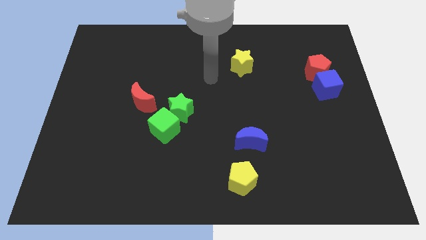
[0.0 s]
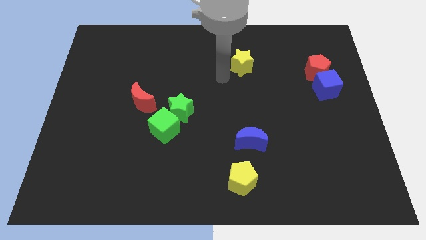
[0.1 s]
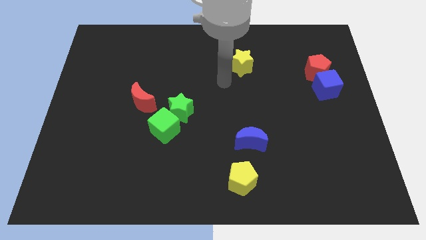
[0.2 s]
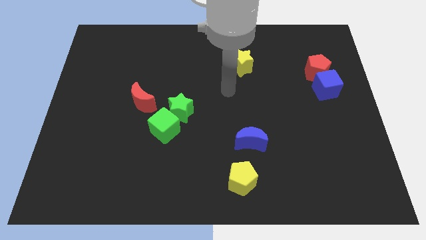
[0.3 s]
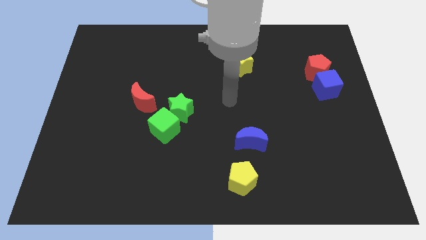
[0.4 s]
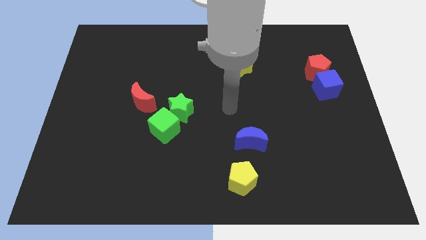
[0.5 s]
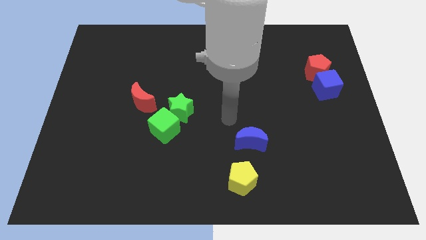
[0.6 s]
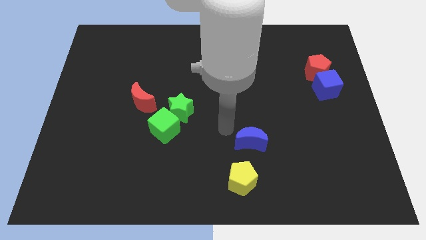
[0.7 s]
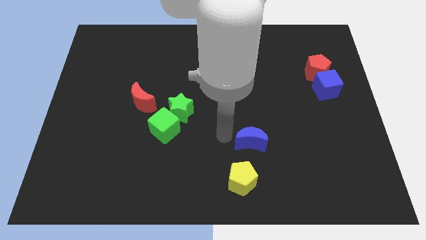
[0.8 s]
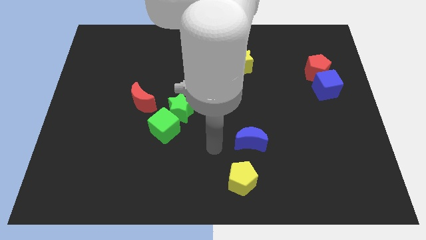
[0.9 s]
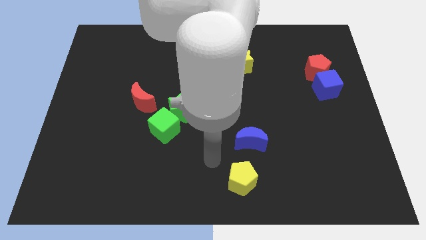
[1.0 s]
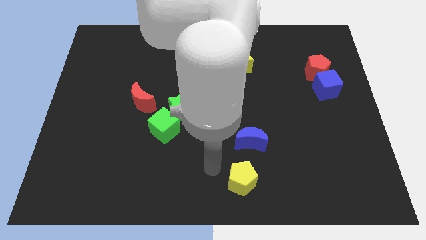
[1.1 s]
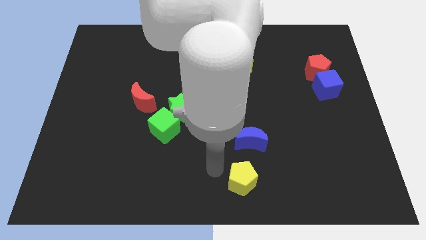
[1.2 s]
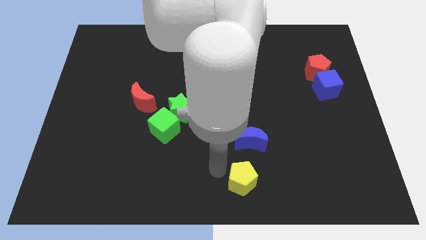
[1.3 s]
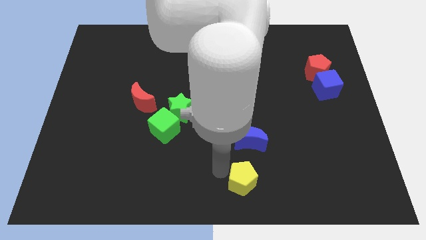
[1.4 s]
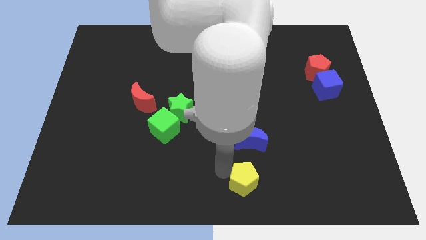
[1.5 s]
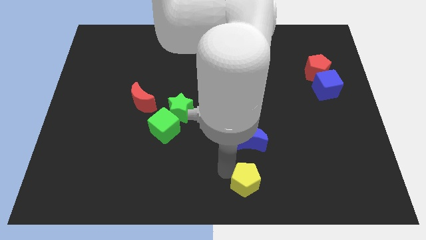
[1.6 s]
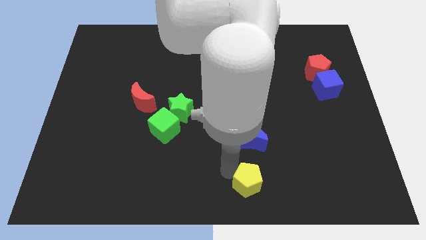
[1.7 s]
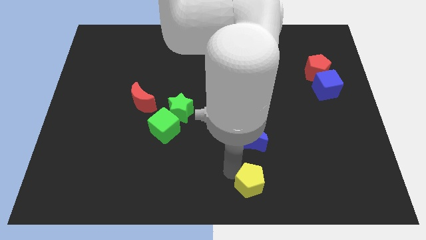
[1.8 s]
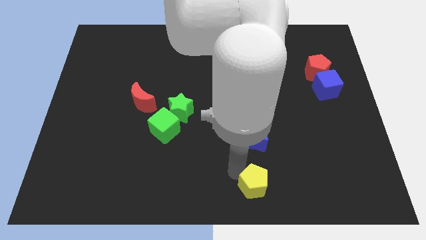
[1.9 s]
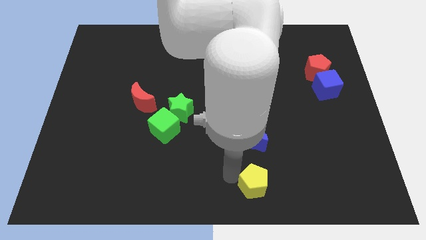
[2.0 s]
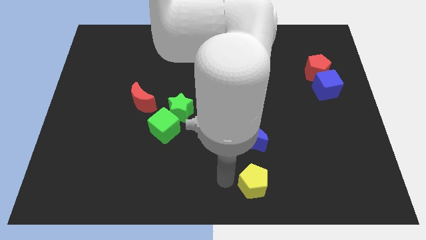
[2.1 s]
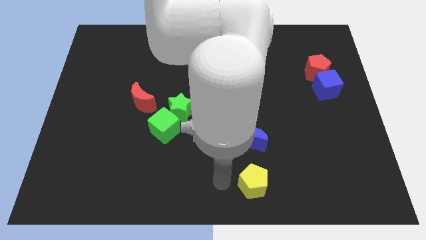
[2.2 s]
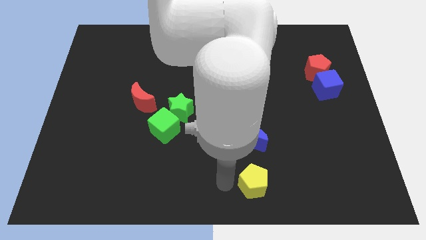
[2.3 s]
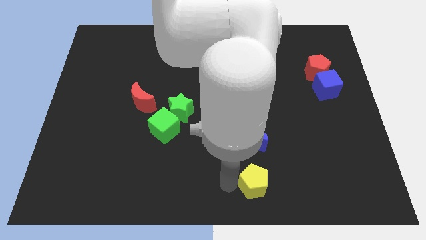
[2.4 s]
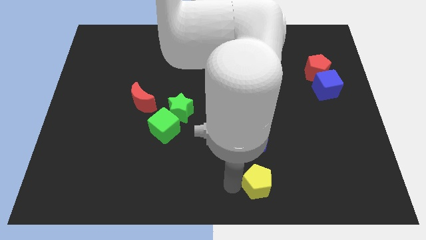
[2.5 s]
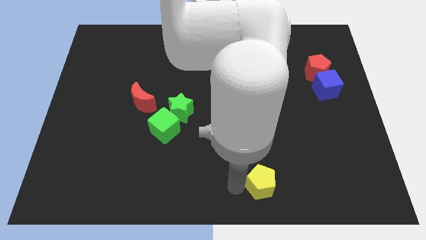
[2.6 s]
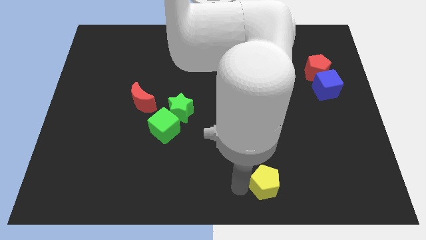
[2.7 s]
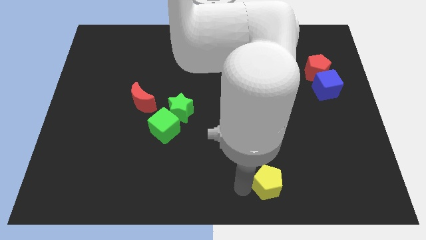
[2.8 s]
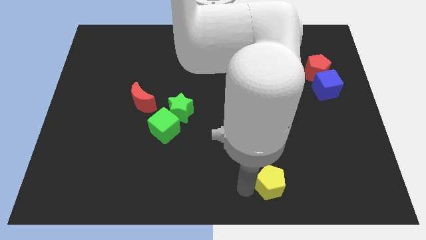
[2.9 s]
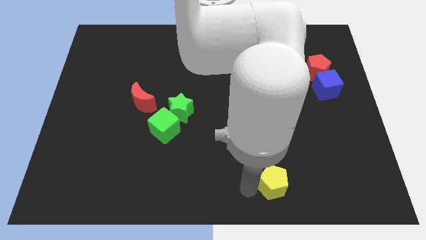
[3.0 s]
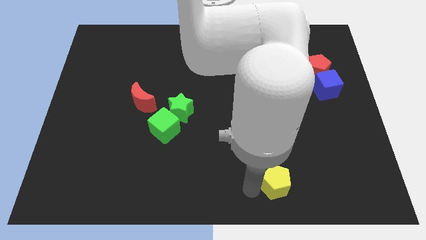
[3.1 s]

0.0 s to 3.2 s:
slide the yellow pentagon right a little bit

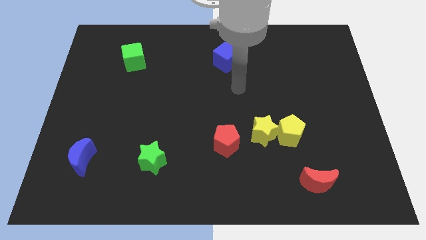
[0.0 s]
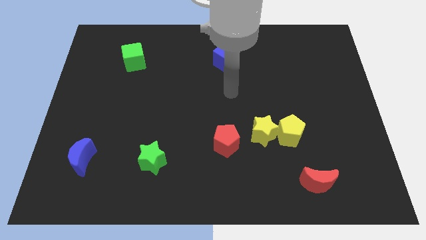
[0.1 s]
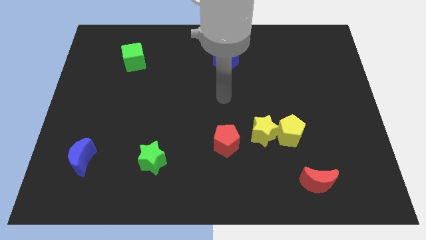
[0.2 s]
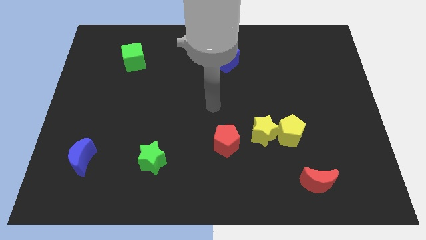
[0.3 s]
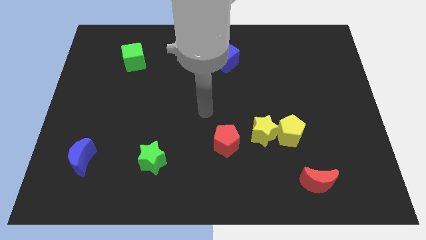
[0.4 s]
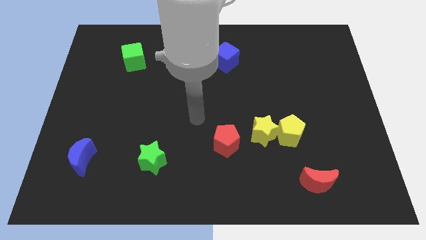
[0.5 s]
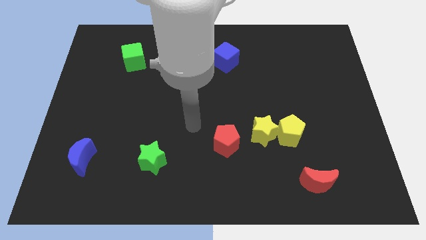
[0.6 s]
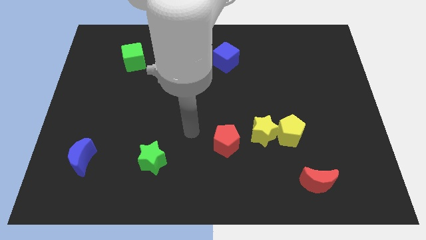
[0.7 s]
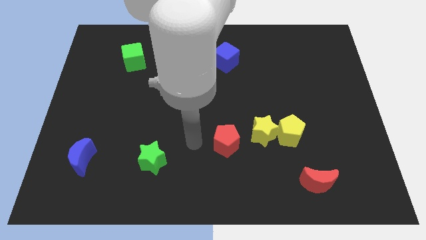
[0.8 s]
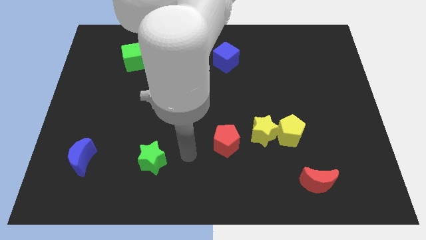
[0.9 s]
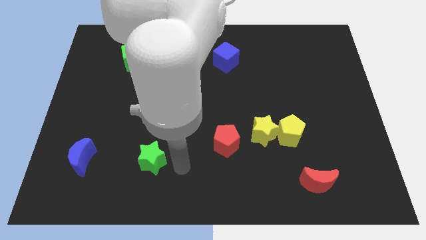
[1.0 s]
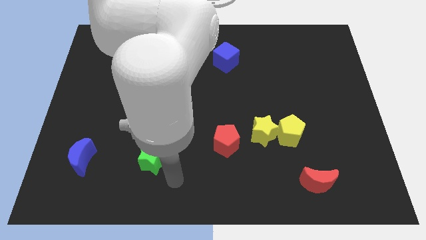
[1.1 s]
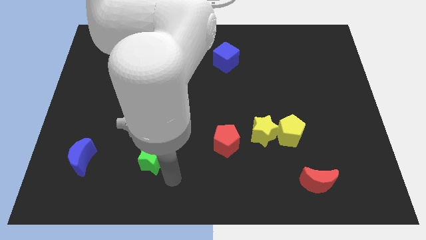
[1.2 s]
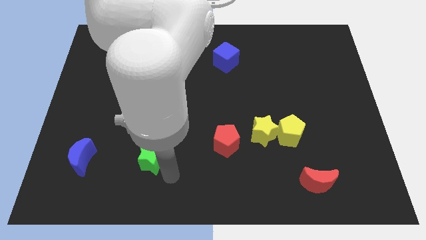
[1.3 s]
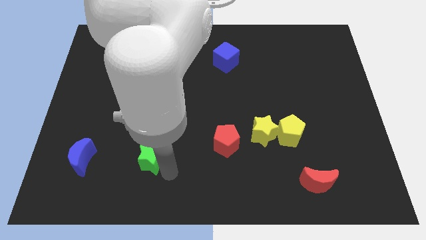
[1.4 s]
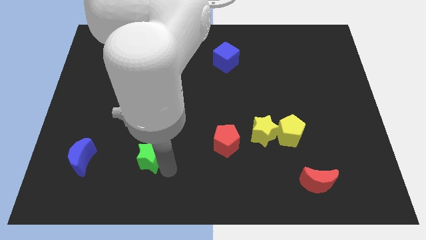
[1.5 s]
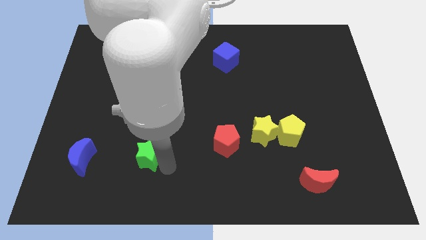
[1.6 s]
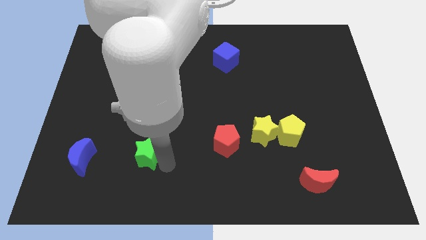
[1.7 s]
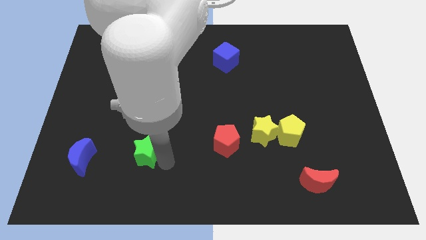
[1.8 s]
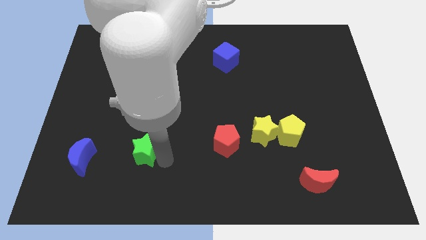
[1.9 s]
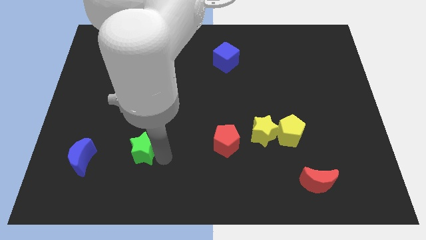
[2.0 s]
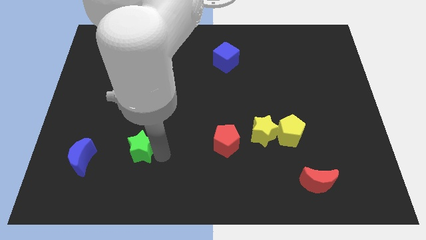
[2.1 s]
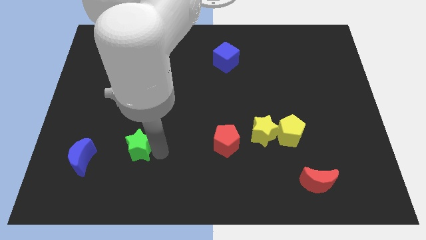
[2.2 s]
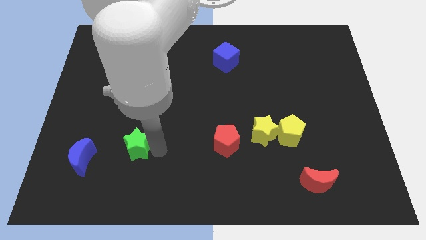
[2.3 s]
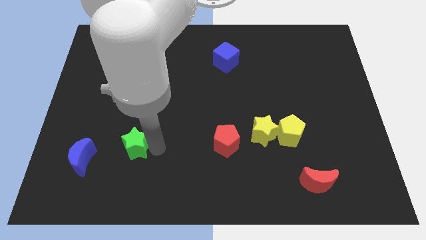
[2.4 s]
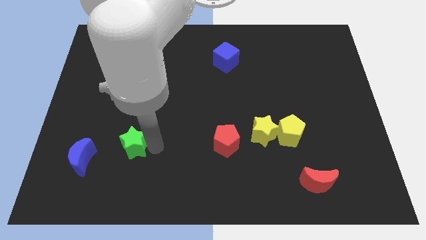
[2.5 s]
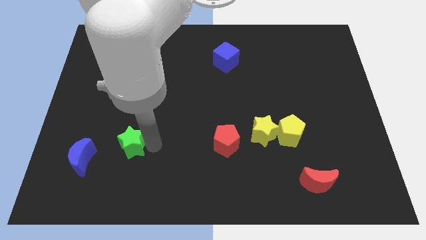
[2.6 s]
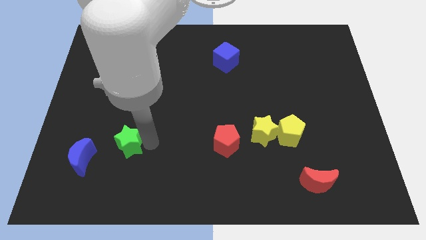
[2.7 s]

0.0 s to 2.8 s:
slightly push the green star up and then left
